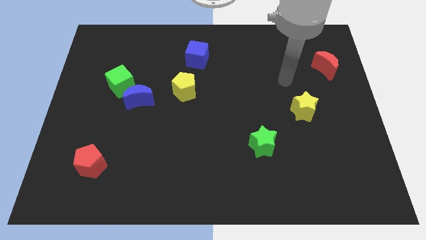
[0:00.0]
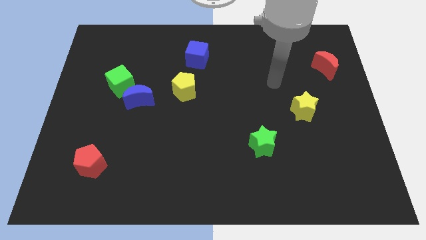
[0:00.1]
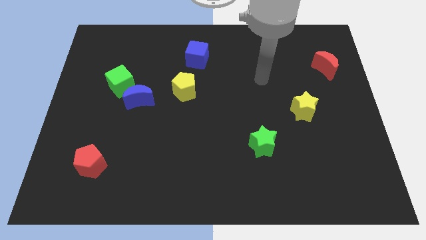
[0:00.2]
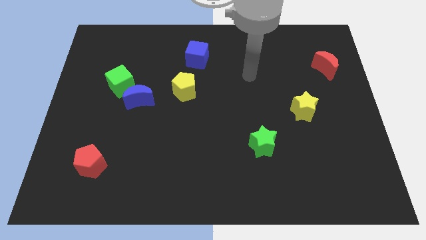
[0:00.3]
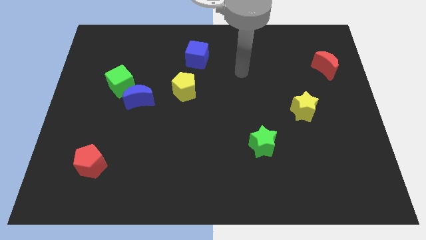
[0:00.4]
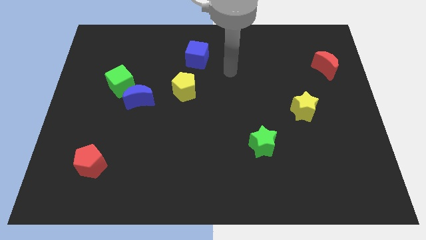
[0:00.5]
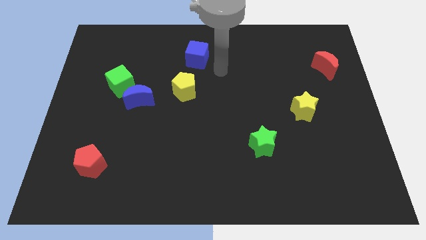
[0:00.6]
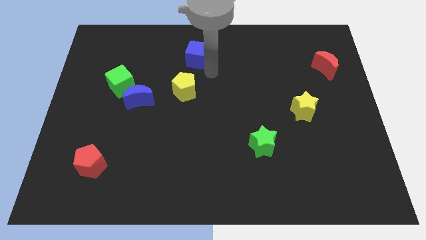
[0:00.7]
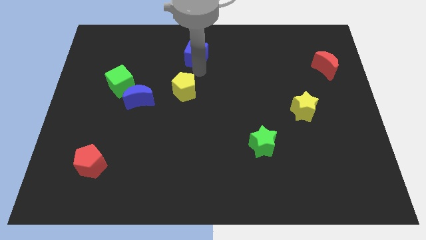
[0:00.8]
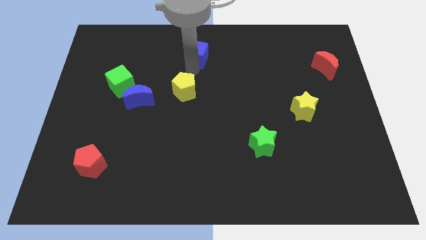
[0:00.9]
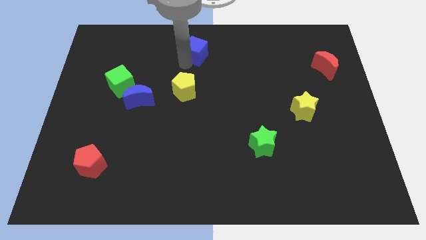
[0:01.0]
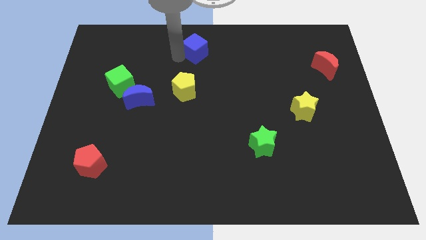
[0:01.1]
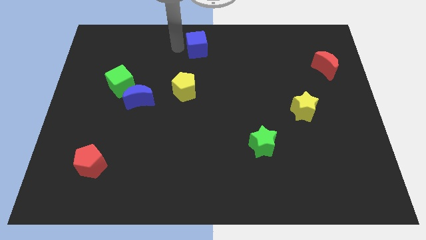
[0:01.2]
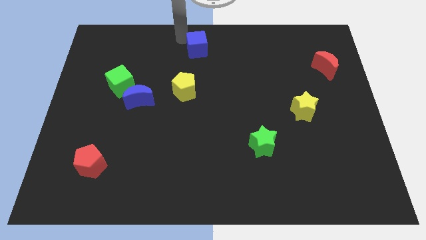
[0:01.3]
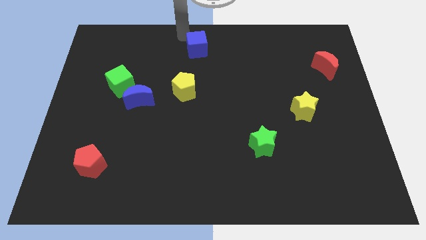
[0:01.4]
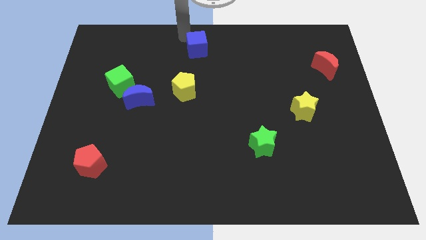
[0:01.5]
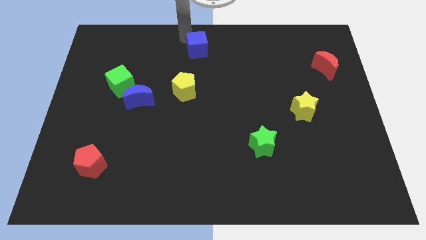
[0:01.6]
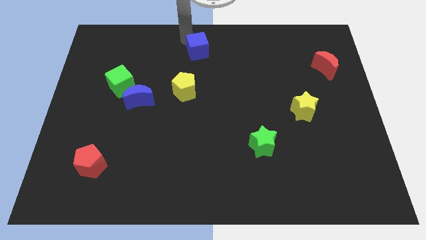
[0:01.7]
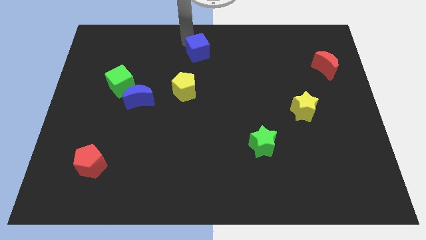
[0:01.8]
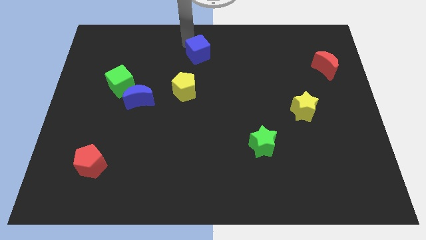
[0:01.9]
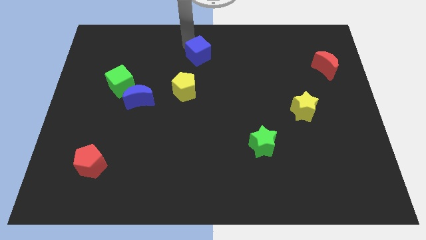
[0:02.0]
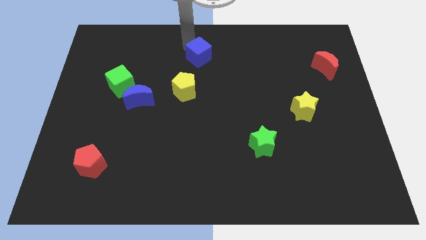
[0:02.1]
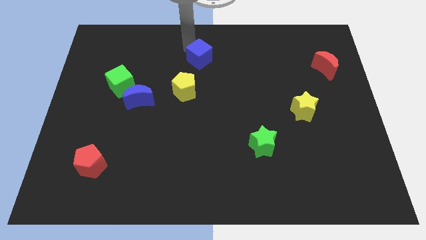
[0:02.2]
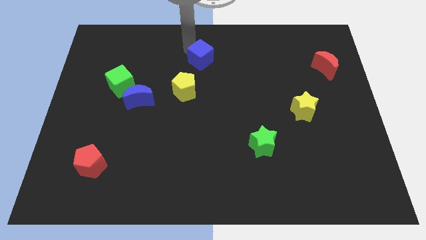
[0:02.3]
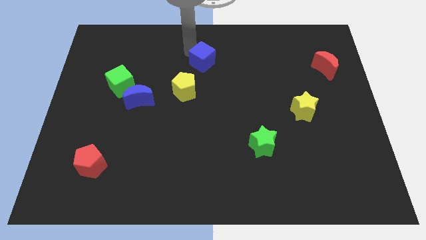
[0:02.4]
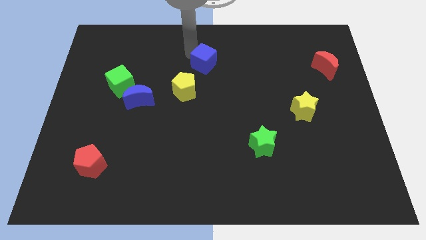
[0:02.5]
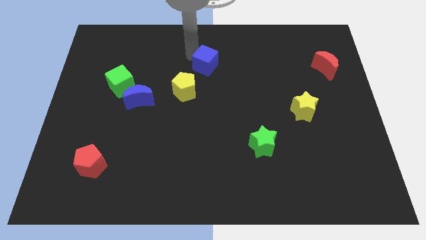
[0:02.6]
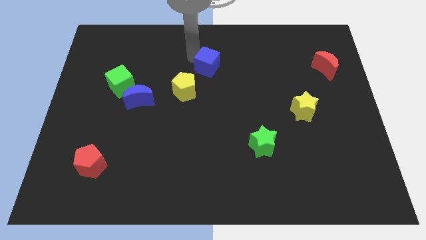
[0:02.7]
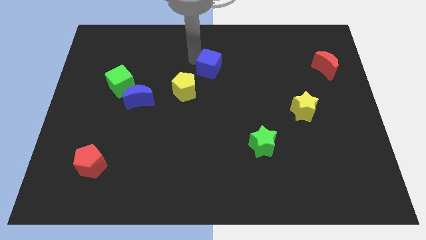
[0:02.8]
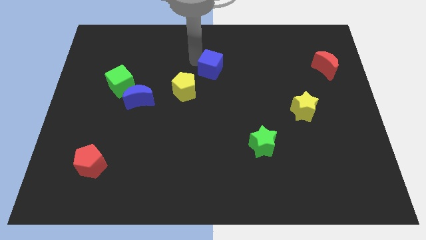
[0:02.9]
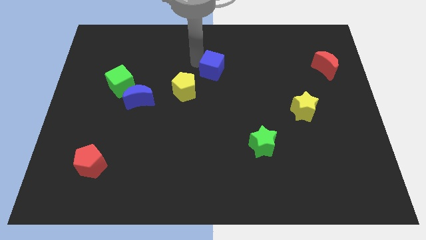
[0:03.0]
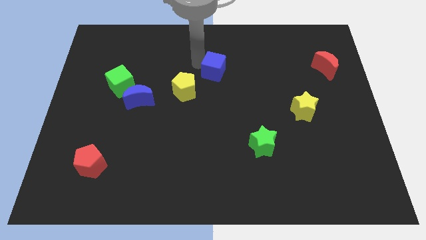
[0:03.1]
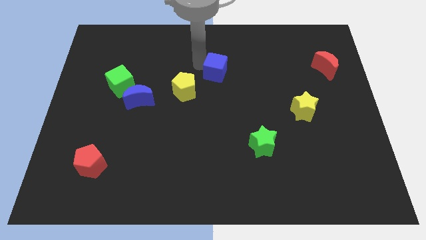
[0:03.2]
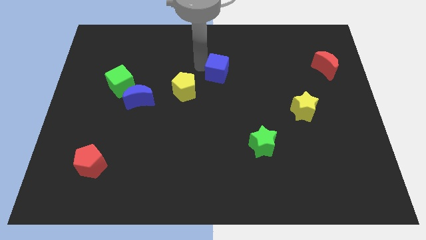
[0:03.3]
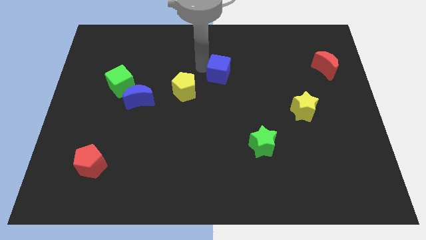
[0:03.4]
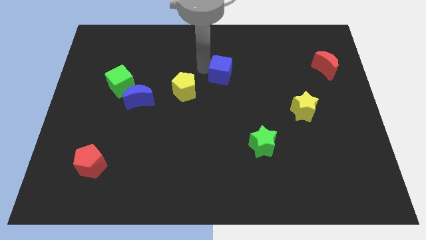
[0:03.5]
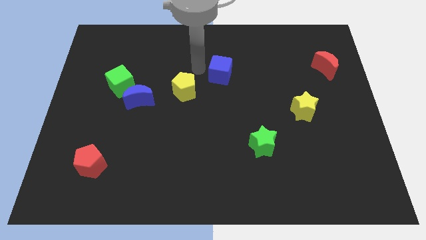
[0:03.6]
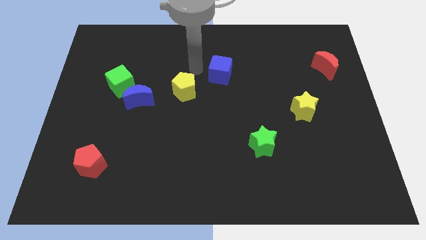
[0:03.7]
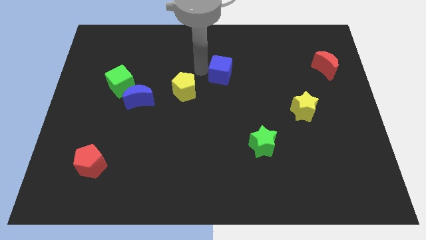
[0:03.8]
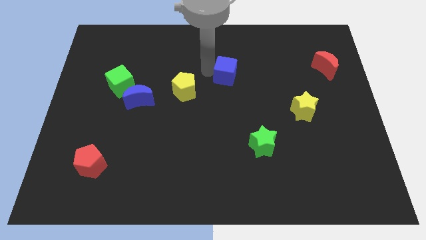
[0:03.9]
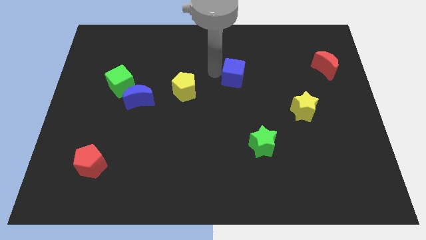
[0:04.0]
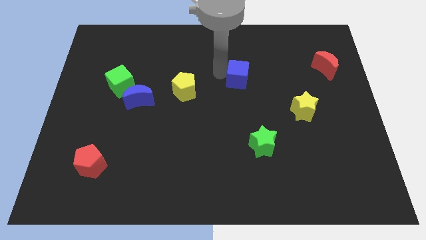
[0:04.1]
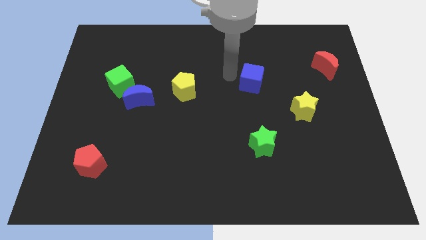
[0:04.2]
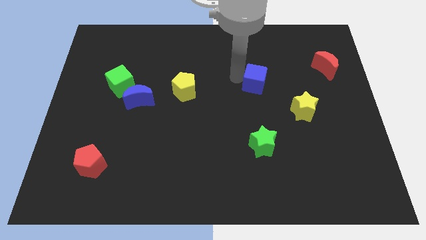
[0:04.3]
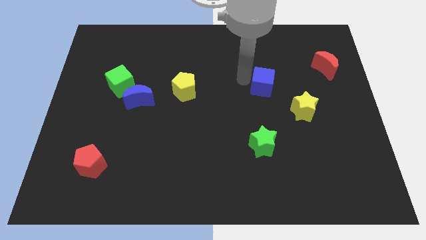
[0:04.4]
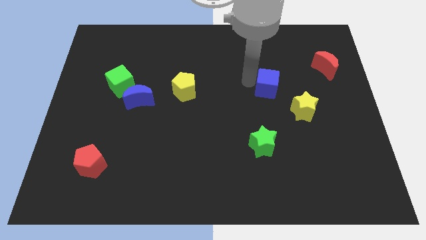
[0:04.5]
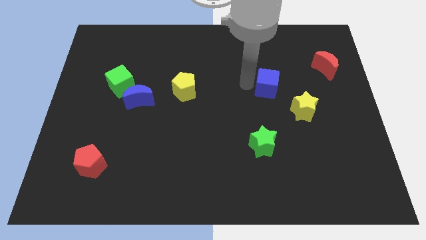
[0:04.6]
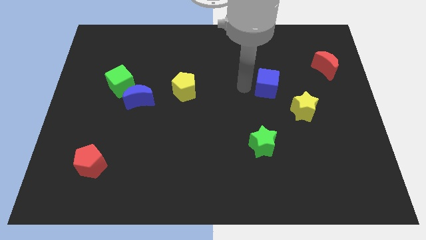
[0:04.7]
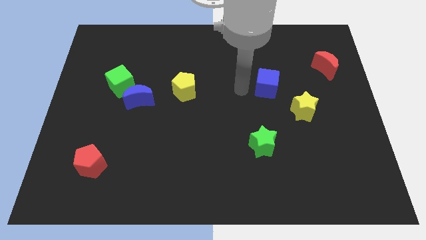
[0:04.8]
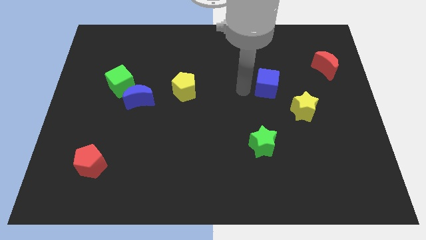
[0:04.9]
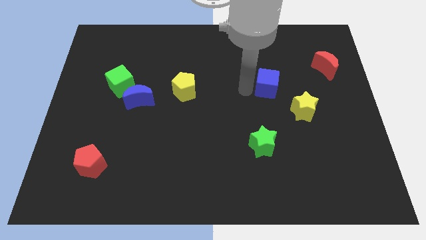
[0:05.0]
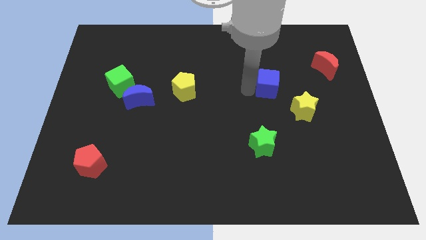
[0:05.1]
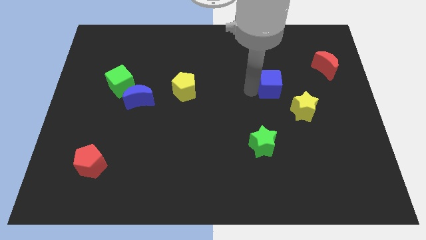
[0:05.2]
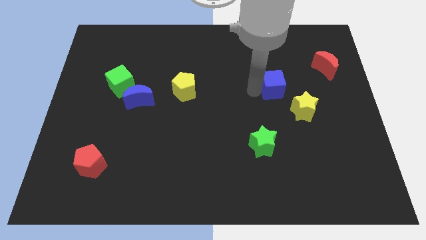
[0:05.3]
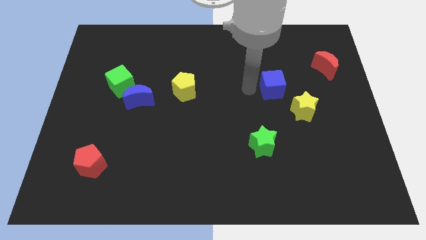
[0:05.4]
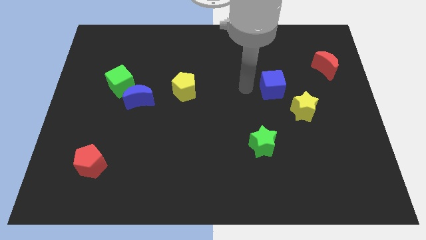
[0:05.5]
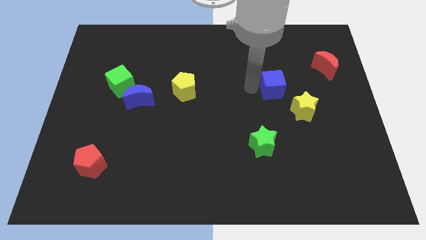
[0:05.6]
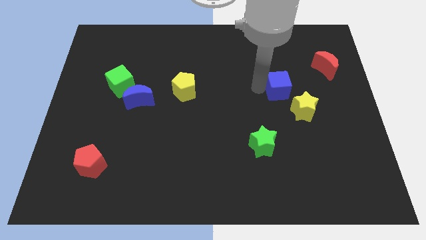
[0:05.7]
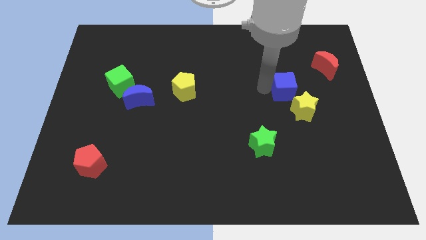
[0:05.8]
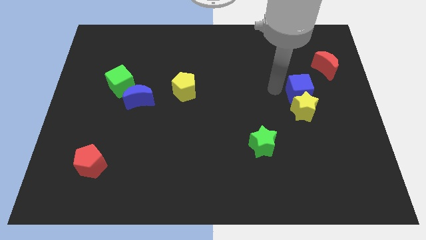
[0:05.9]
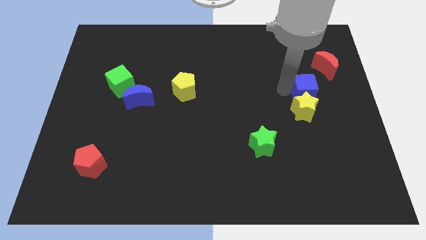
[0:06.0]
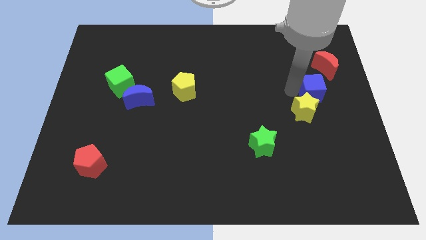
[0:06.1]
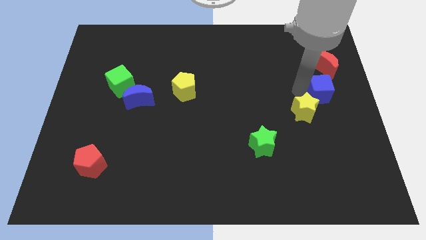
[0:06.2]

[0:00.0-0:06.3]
slide the blue cube to the center right
